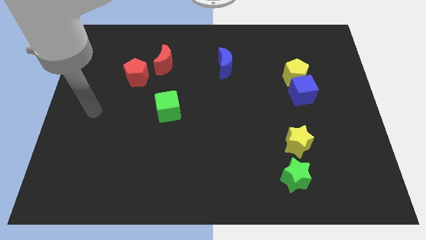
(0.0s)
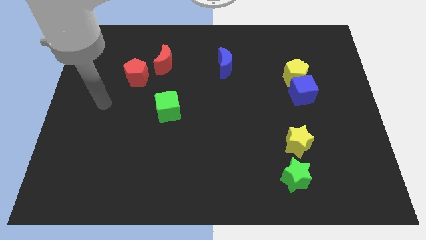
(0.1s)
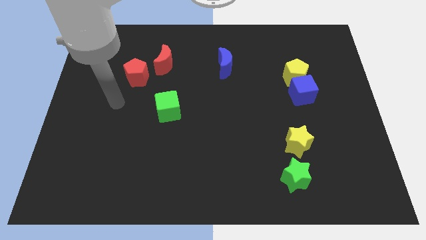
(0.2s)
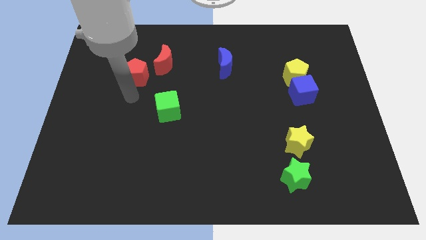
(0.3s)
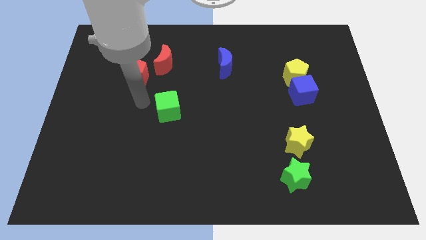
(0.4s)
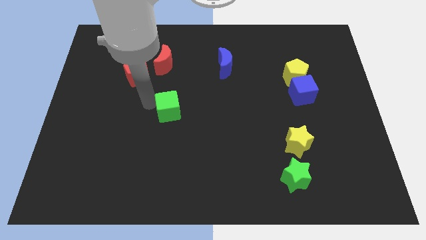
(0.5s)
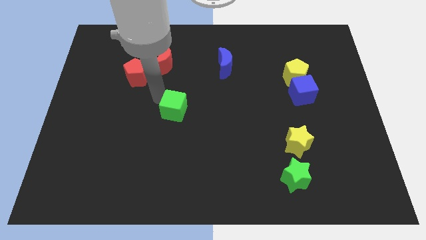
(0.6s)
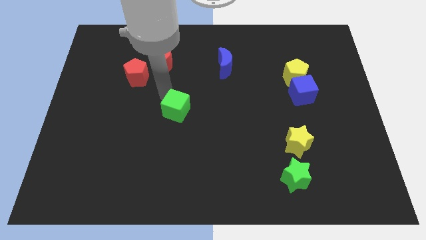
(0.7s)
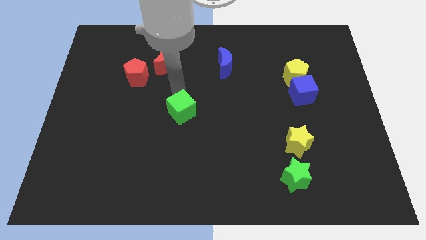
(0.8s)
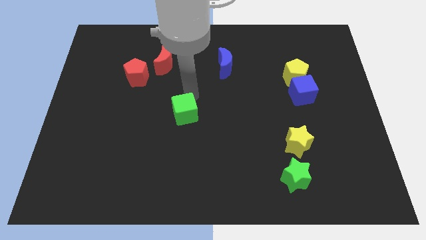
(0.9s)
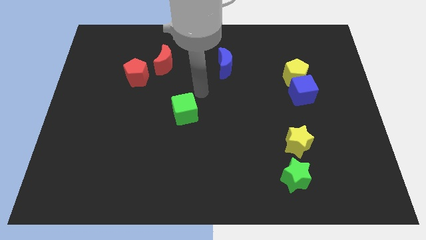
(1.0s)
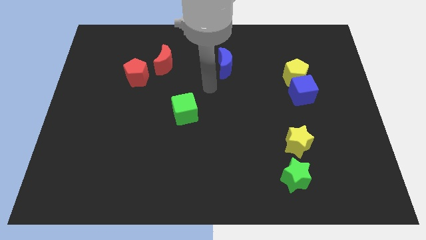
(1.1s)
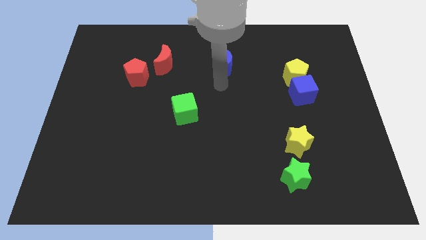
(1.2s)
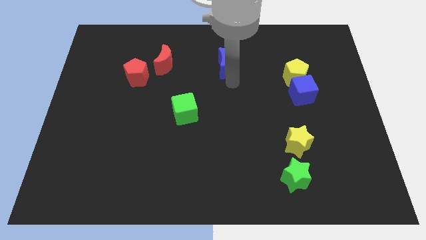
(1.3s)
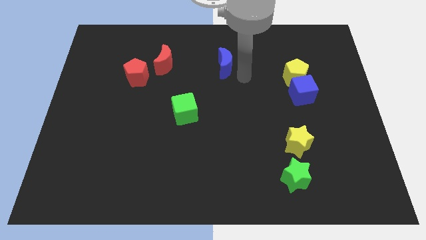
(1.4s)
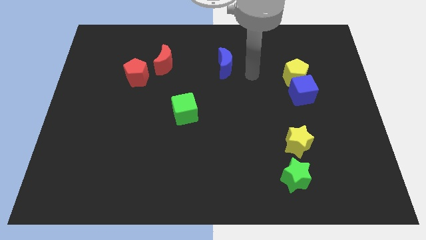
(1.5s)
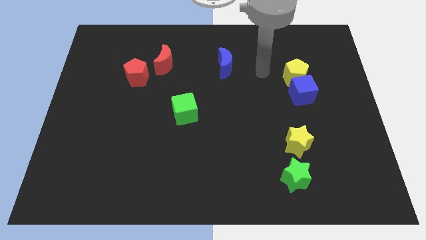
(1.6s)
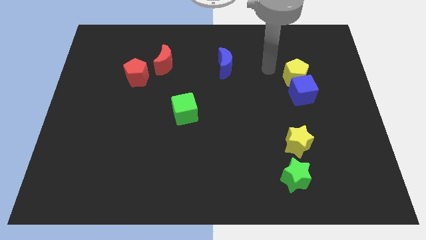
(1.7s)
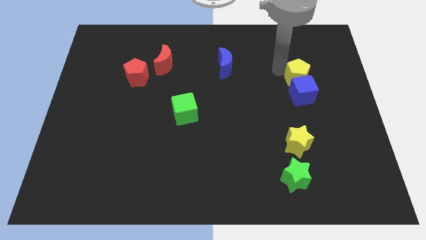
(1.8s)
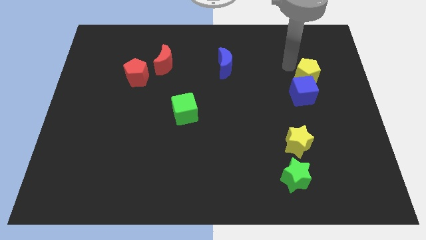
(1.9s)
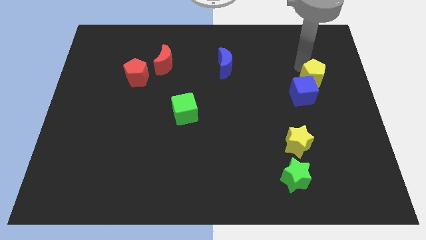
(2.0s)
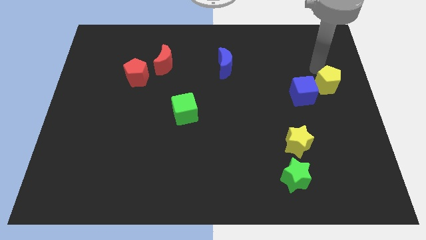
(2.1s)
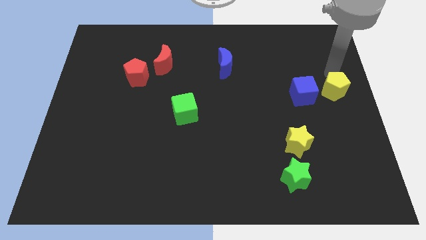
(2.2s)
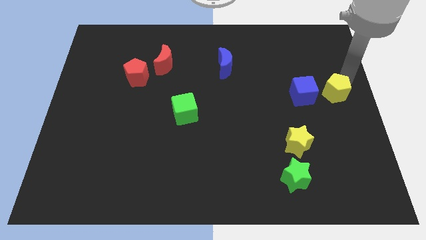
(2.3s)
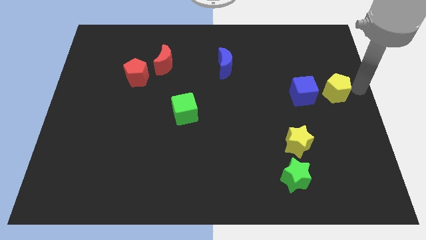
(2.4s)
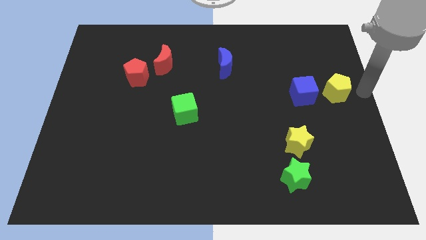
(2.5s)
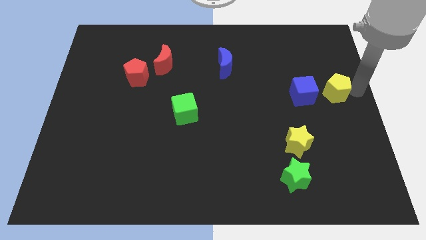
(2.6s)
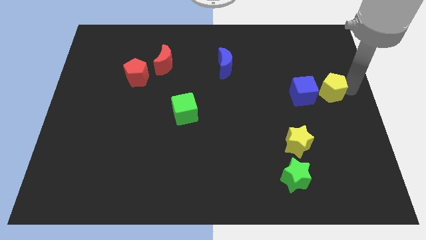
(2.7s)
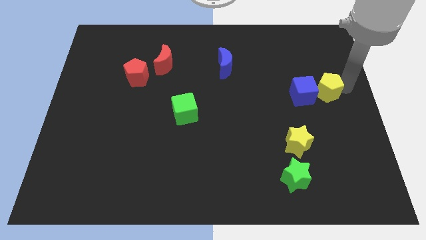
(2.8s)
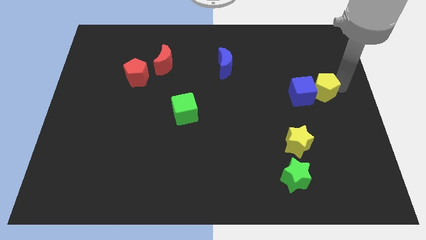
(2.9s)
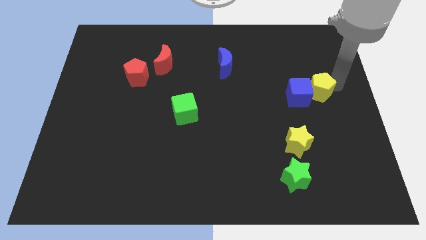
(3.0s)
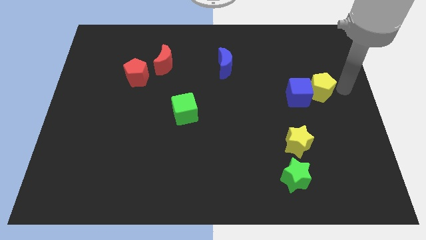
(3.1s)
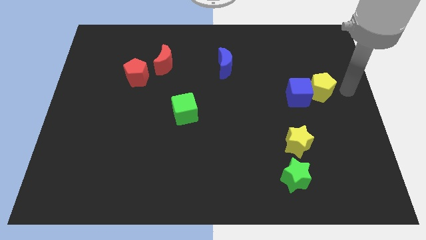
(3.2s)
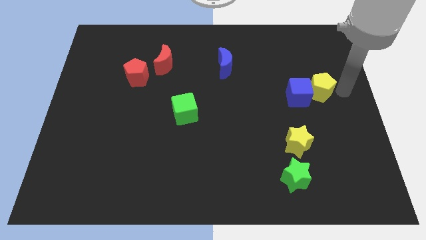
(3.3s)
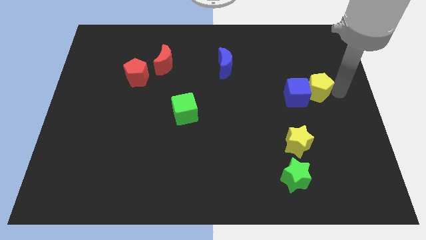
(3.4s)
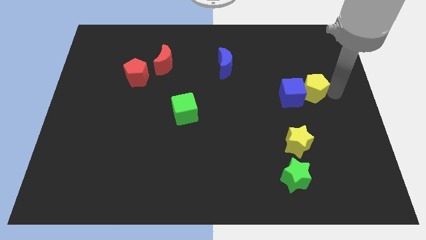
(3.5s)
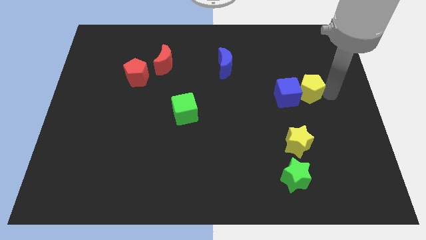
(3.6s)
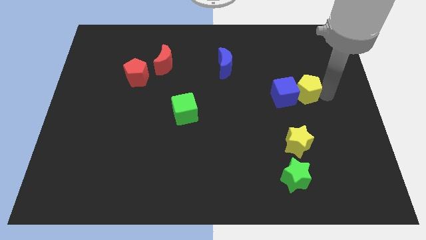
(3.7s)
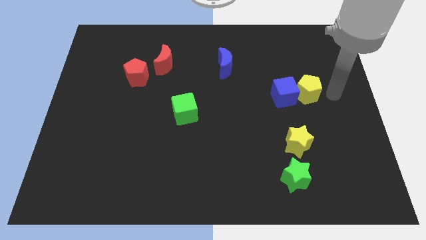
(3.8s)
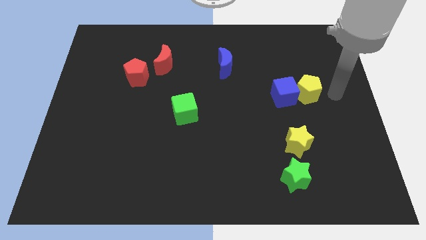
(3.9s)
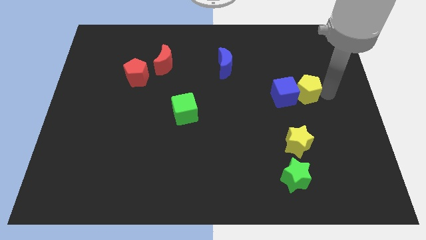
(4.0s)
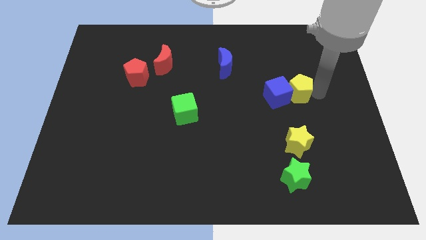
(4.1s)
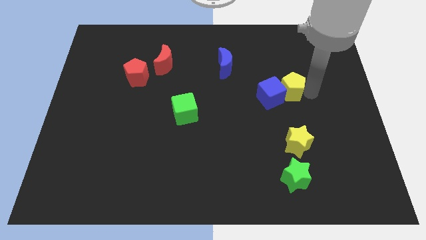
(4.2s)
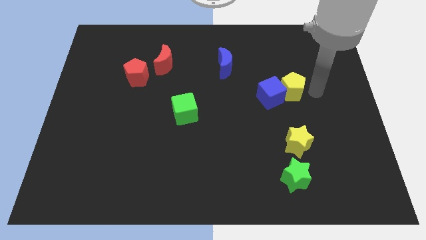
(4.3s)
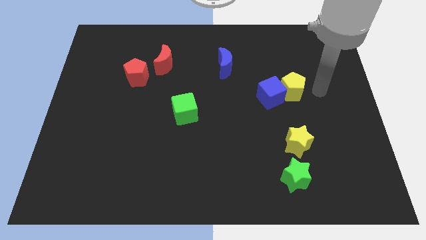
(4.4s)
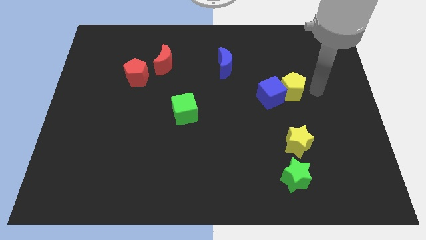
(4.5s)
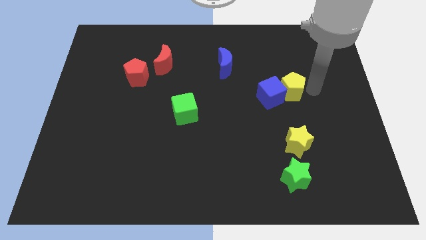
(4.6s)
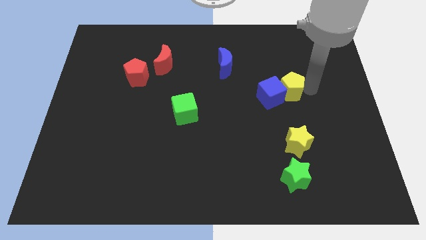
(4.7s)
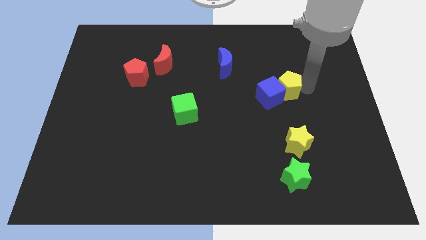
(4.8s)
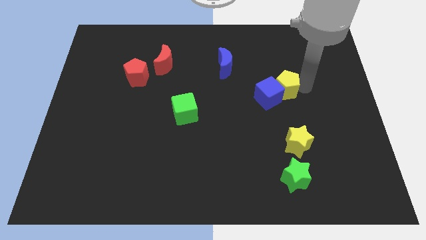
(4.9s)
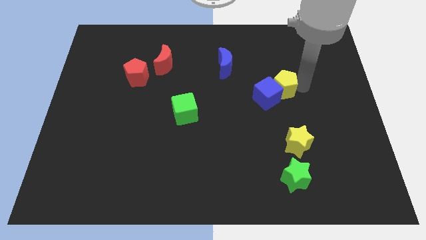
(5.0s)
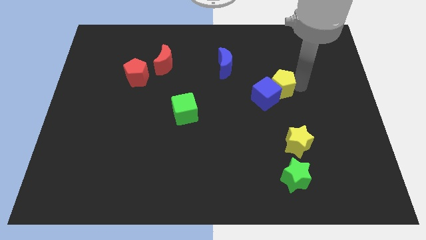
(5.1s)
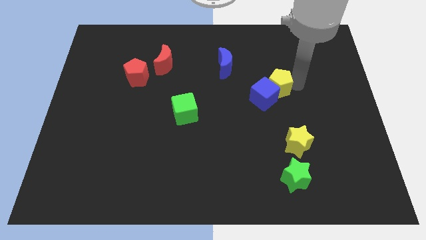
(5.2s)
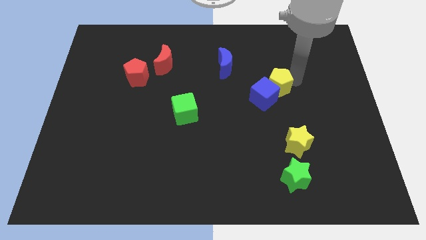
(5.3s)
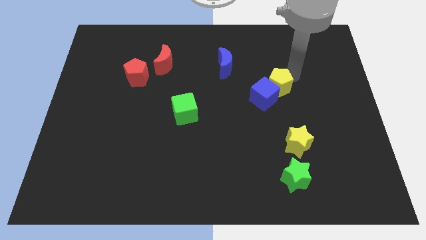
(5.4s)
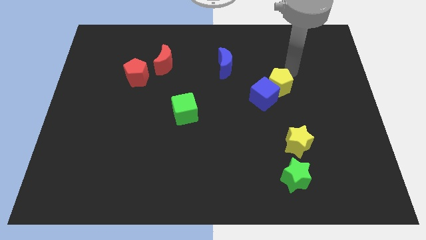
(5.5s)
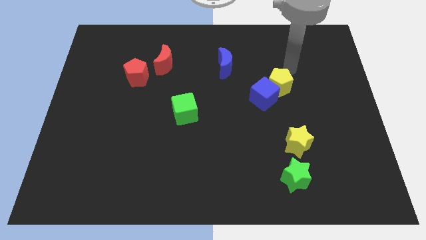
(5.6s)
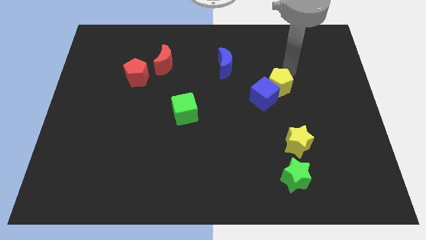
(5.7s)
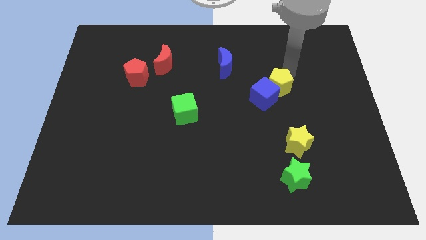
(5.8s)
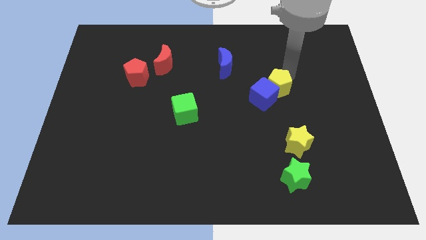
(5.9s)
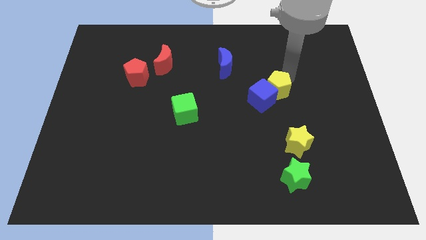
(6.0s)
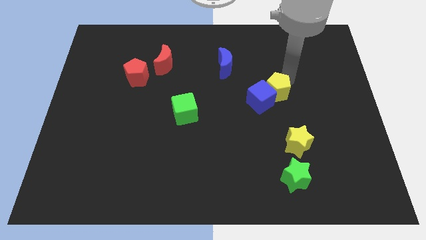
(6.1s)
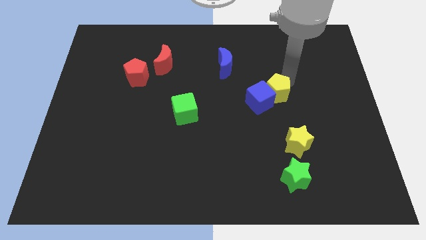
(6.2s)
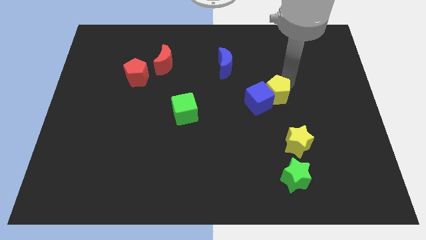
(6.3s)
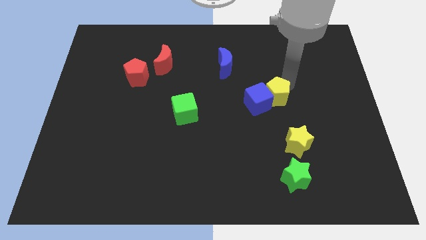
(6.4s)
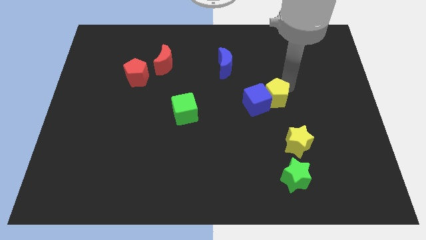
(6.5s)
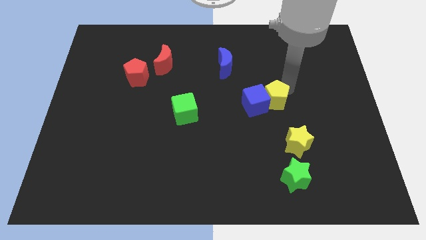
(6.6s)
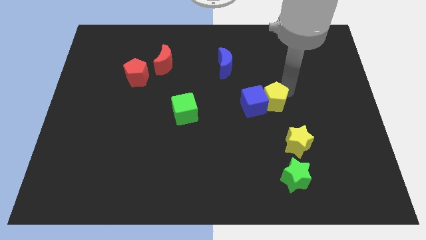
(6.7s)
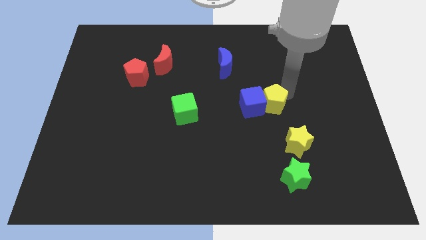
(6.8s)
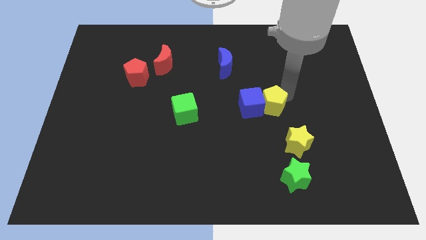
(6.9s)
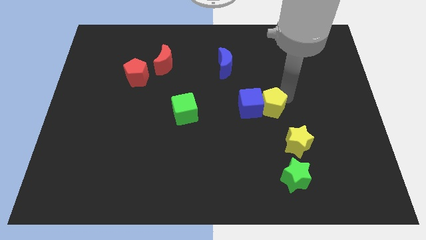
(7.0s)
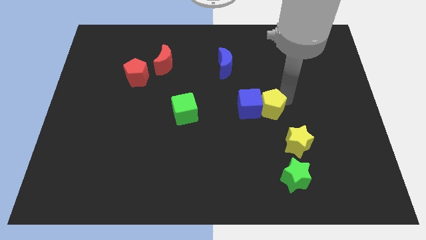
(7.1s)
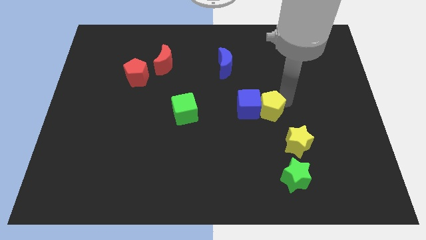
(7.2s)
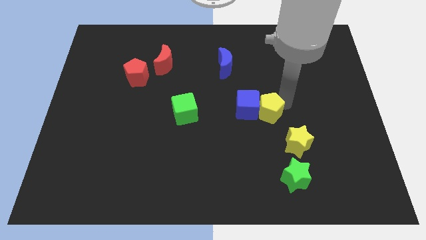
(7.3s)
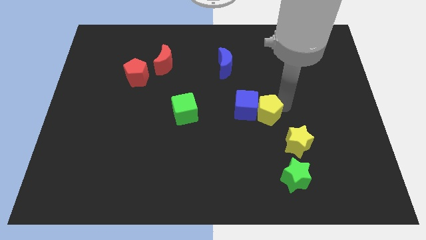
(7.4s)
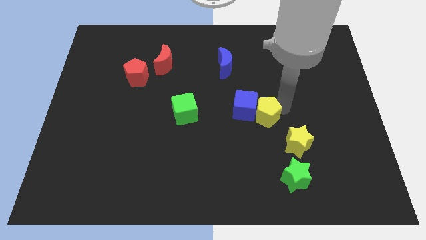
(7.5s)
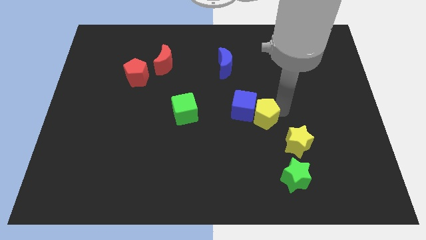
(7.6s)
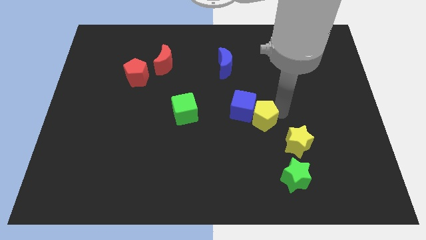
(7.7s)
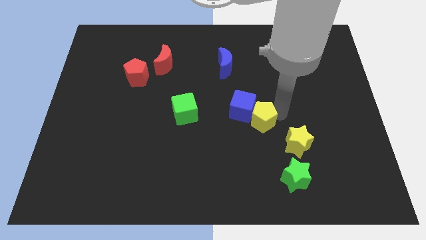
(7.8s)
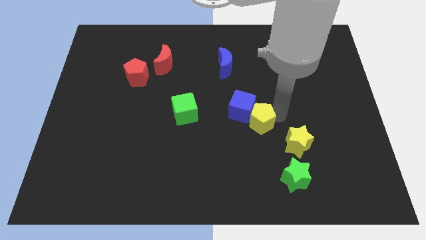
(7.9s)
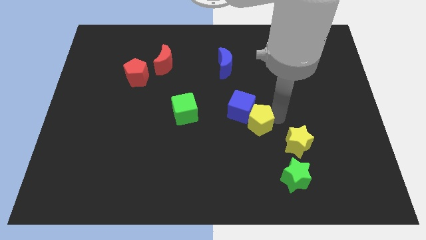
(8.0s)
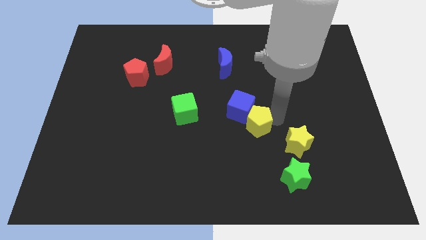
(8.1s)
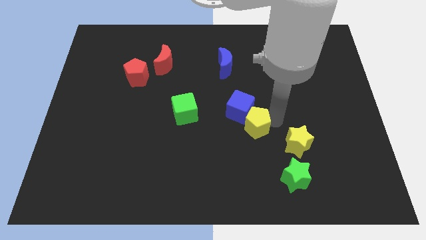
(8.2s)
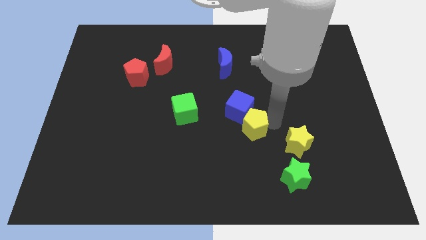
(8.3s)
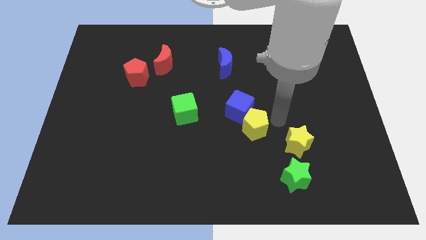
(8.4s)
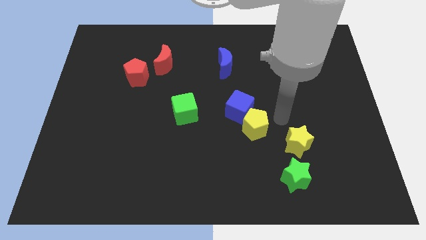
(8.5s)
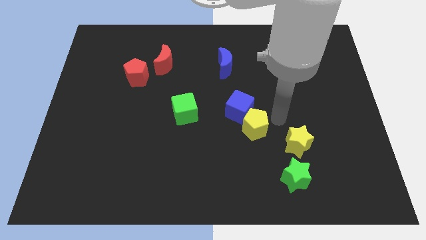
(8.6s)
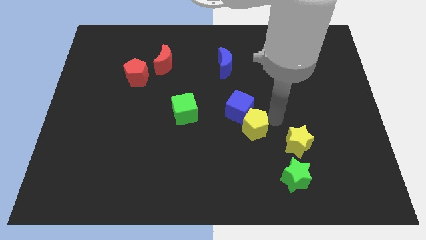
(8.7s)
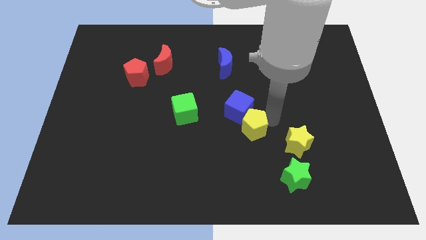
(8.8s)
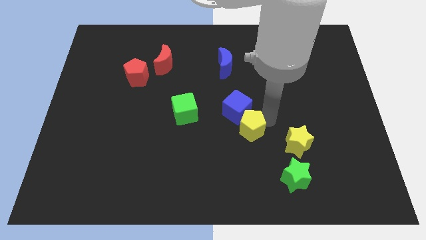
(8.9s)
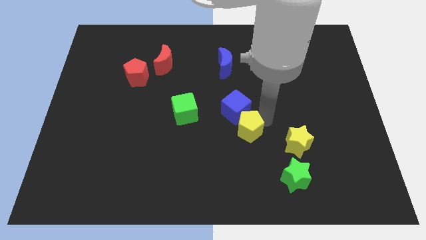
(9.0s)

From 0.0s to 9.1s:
slide the yellow pentagon diagonally downwards and to the left
